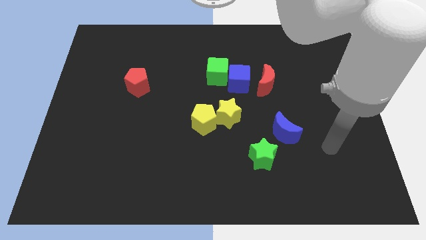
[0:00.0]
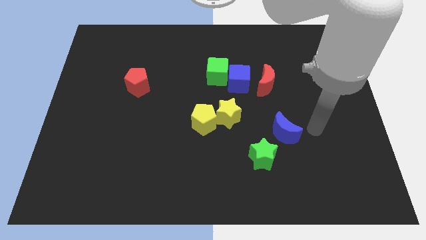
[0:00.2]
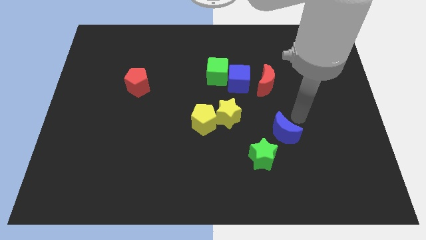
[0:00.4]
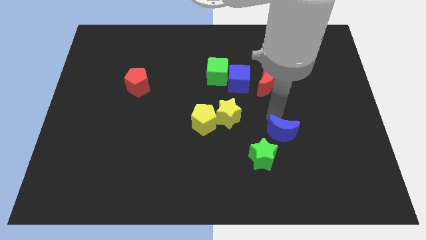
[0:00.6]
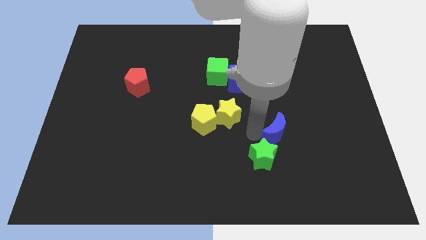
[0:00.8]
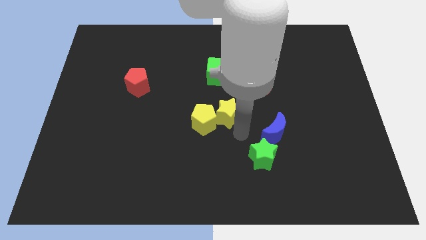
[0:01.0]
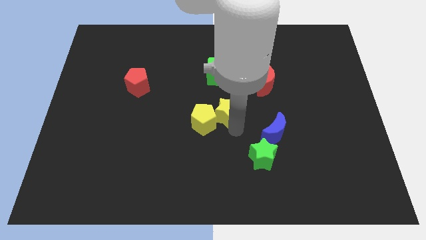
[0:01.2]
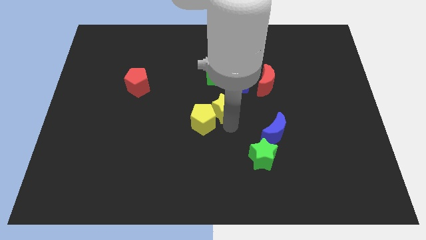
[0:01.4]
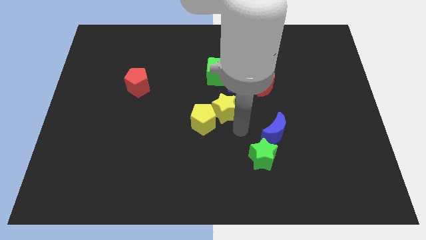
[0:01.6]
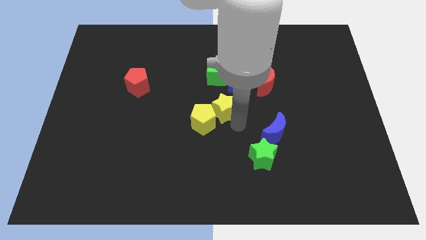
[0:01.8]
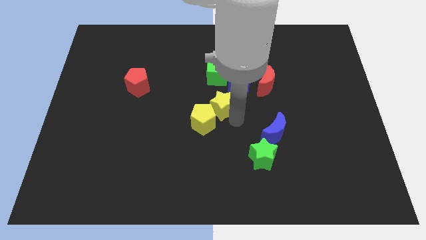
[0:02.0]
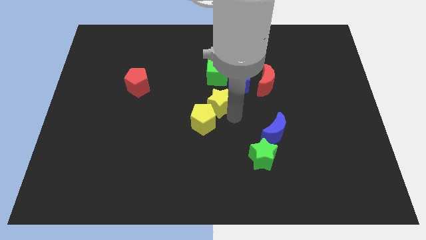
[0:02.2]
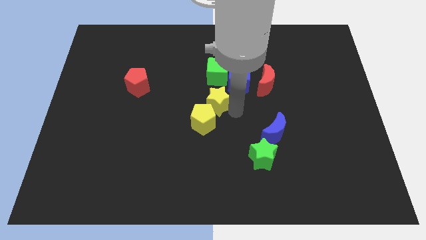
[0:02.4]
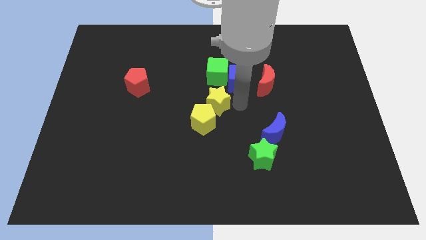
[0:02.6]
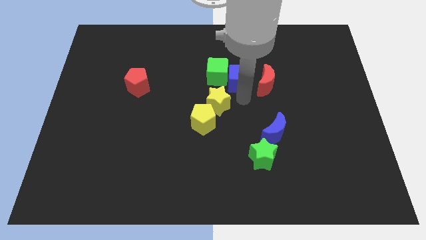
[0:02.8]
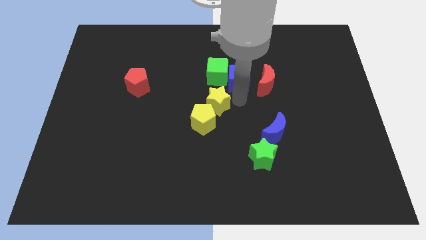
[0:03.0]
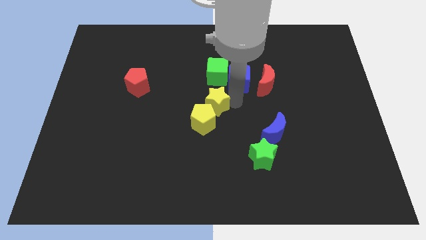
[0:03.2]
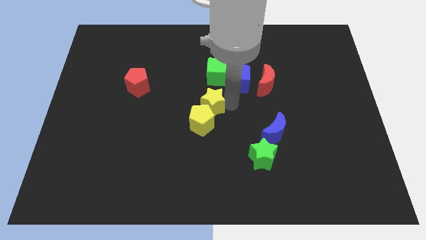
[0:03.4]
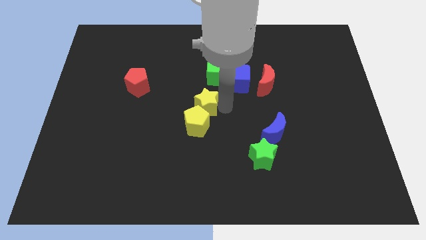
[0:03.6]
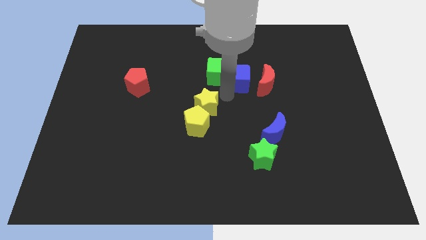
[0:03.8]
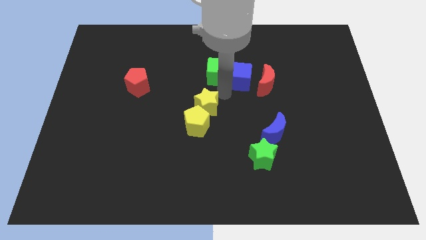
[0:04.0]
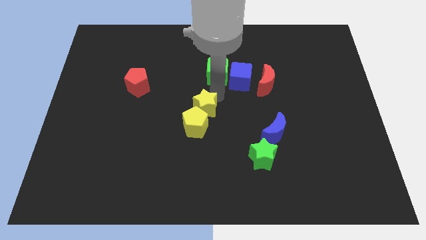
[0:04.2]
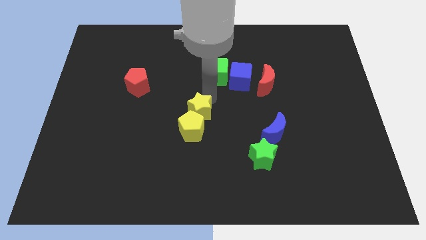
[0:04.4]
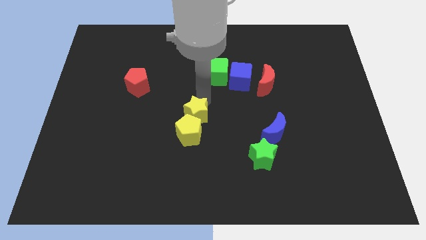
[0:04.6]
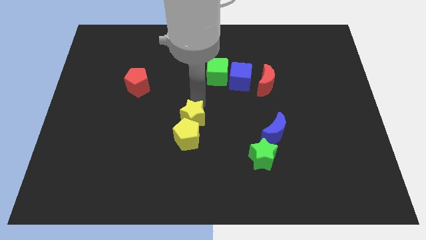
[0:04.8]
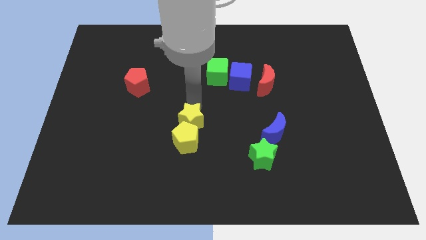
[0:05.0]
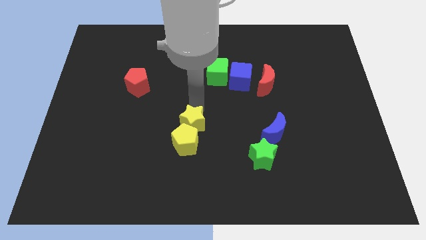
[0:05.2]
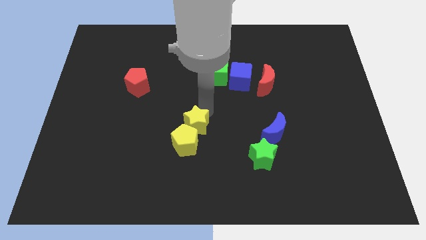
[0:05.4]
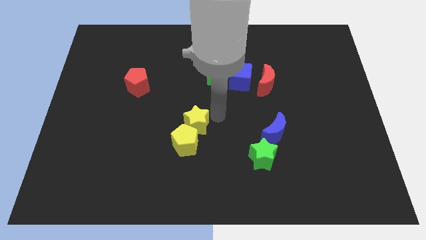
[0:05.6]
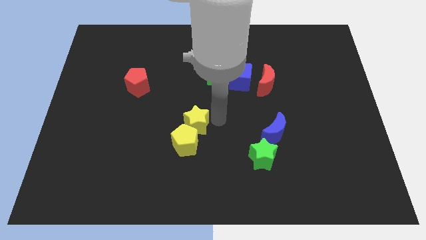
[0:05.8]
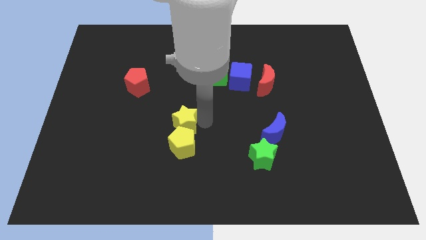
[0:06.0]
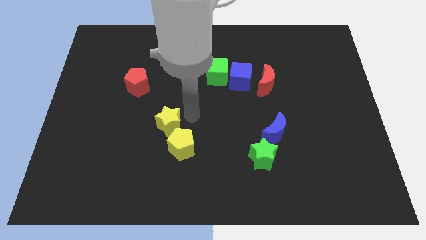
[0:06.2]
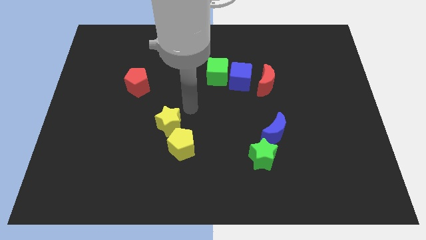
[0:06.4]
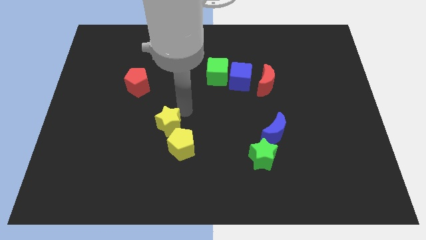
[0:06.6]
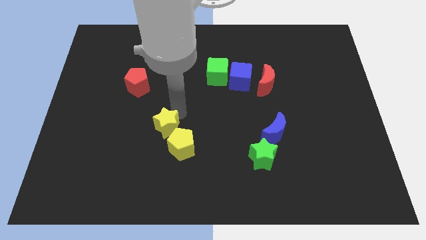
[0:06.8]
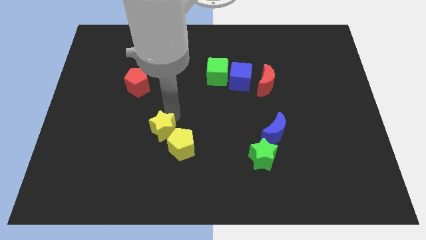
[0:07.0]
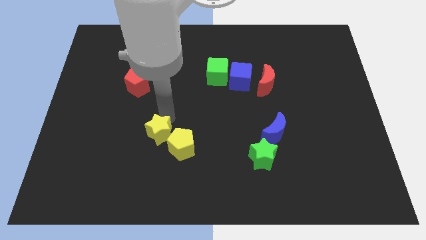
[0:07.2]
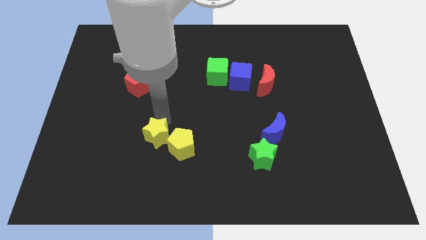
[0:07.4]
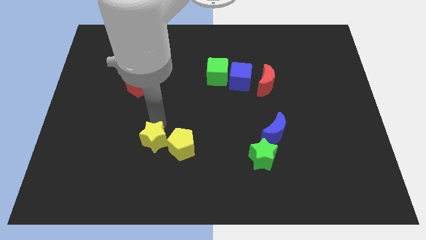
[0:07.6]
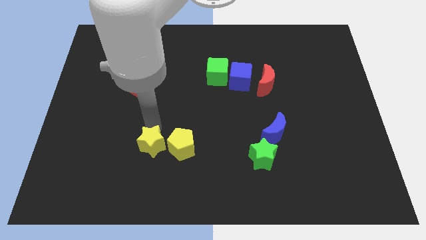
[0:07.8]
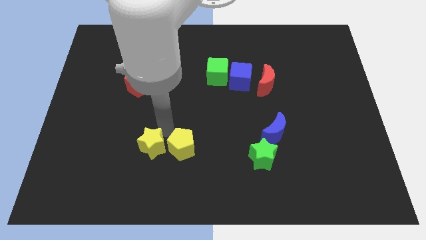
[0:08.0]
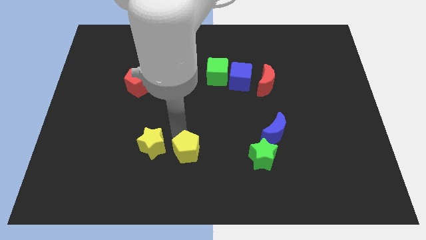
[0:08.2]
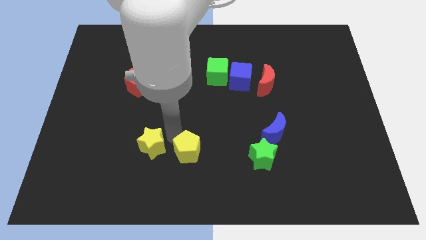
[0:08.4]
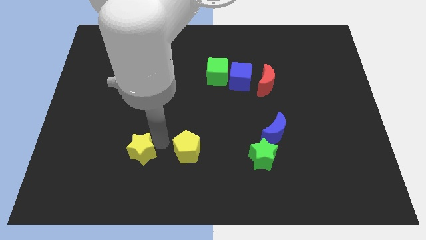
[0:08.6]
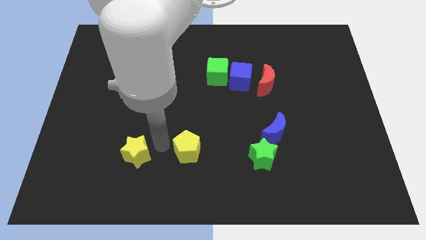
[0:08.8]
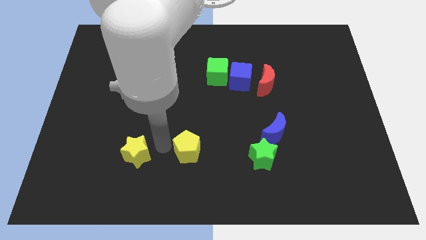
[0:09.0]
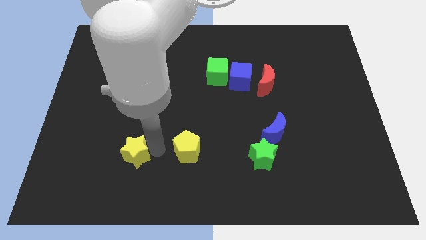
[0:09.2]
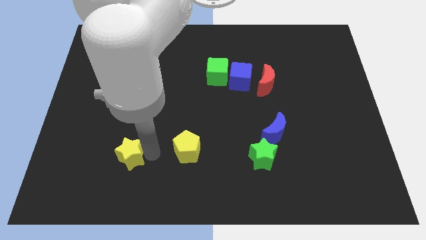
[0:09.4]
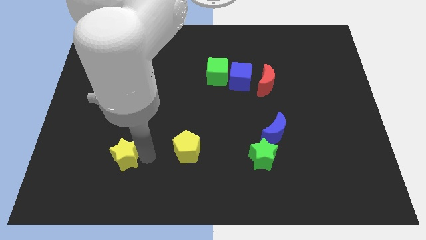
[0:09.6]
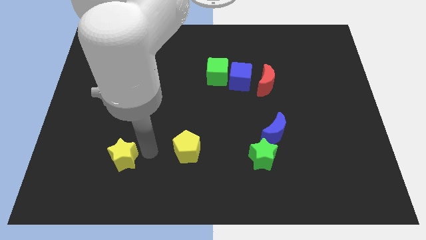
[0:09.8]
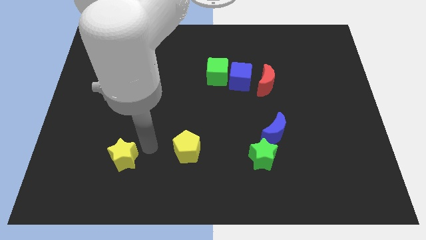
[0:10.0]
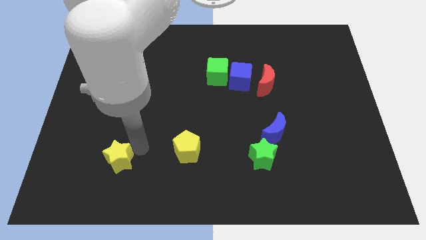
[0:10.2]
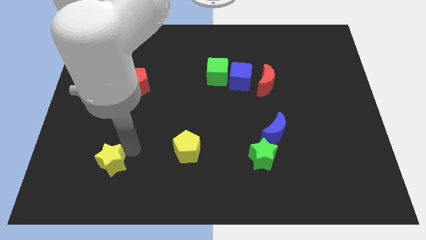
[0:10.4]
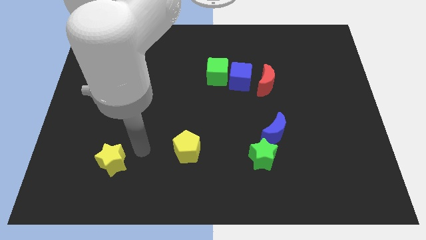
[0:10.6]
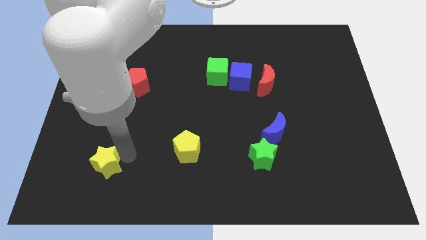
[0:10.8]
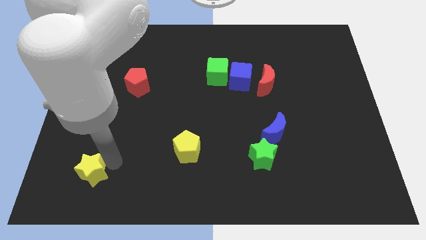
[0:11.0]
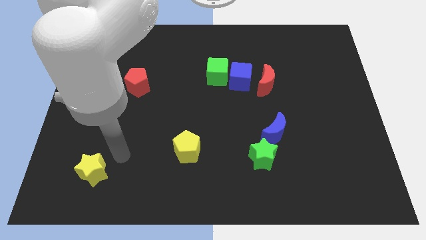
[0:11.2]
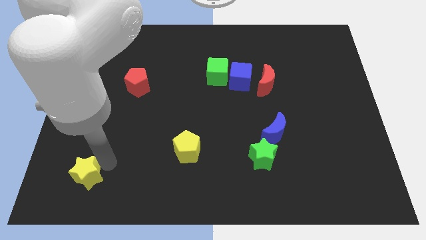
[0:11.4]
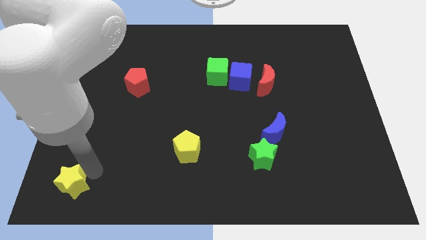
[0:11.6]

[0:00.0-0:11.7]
move the yellow star to the bottom left of the board
